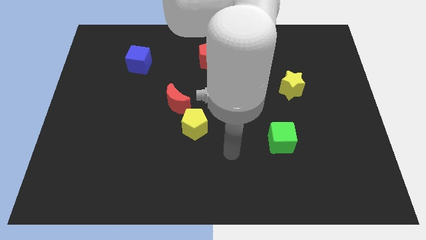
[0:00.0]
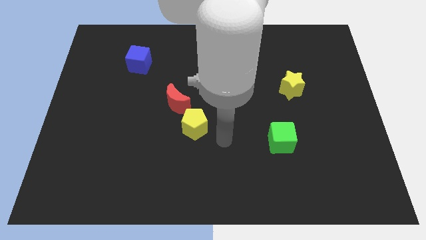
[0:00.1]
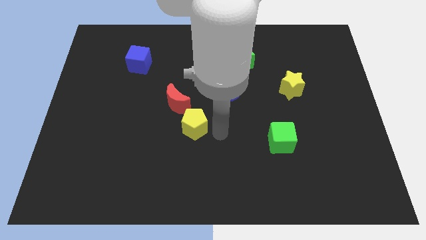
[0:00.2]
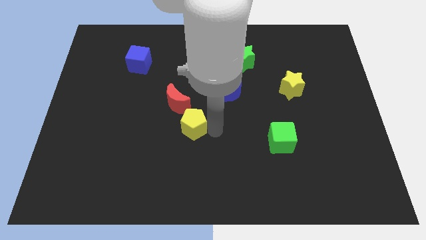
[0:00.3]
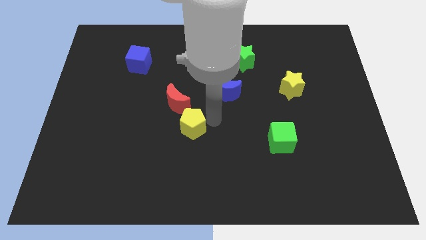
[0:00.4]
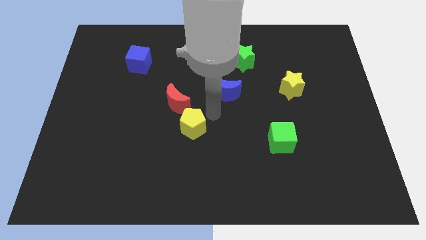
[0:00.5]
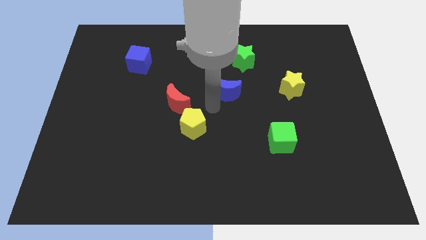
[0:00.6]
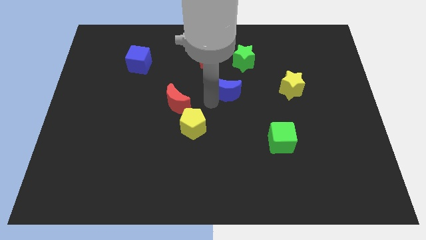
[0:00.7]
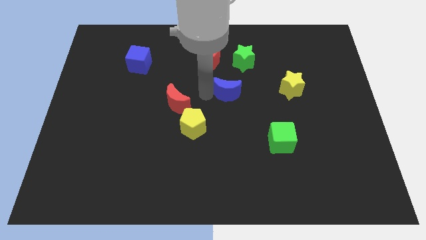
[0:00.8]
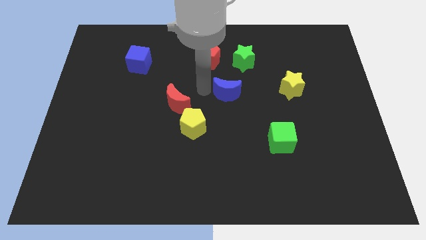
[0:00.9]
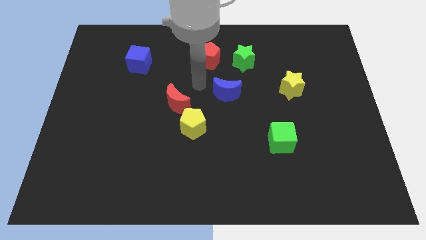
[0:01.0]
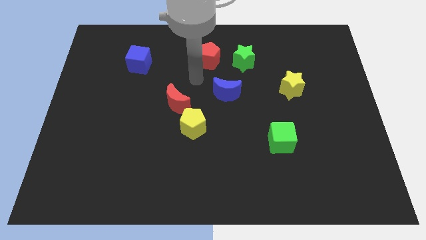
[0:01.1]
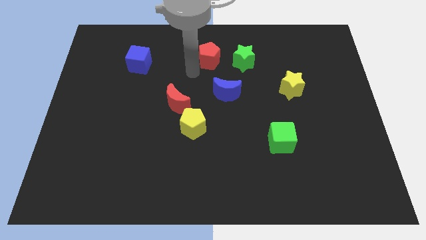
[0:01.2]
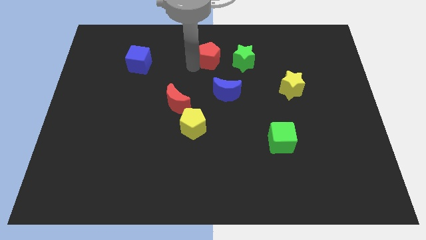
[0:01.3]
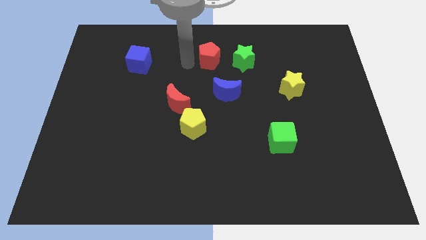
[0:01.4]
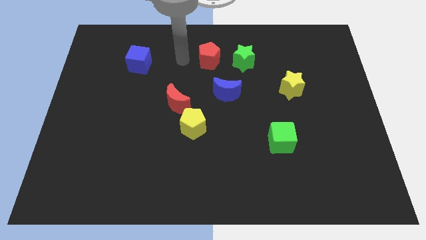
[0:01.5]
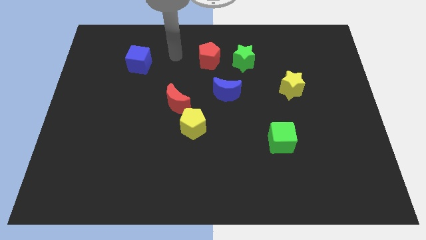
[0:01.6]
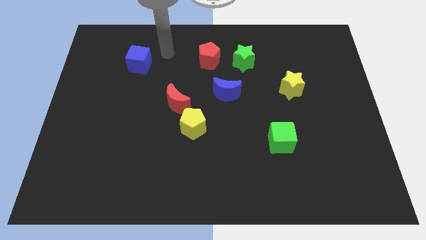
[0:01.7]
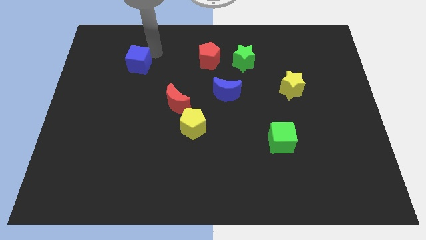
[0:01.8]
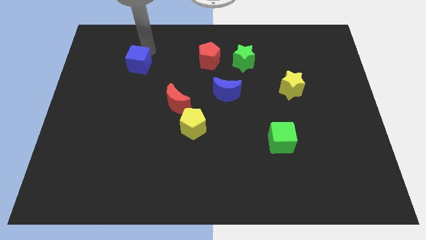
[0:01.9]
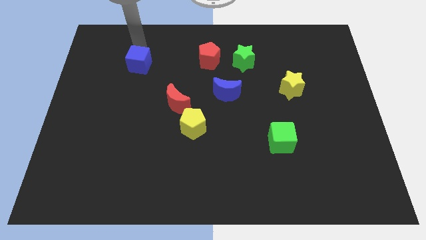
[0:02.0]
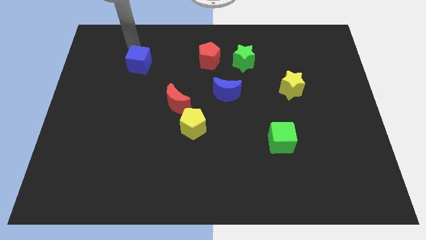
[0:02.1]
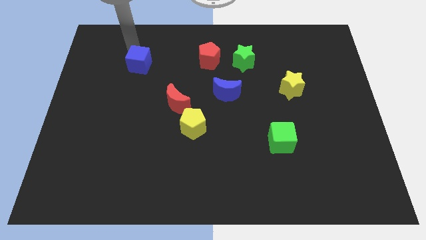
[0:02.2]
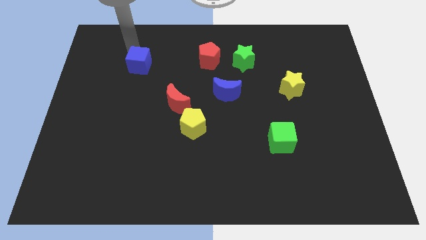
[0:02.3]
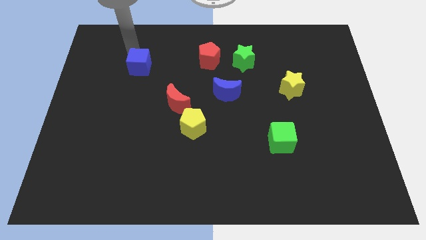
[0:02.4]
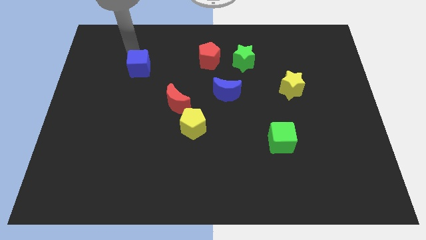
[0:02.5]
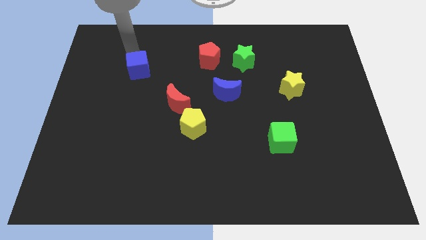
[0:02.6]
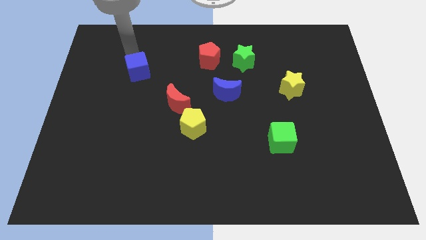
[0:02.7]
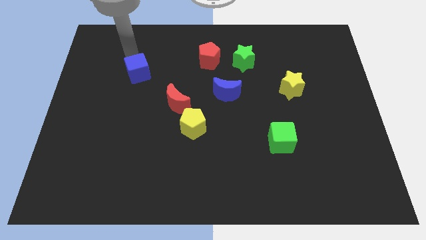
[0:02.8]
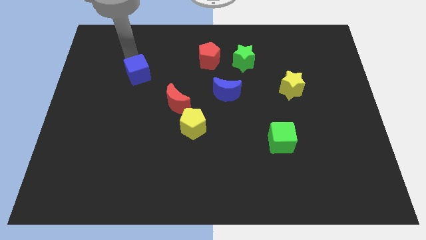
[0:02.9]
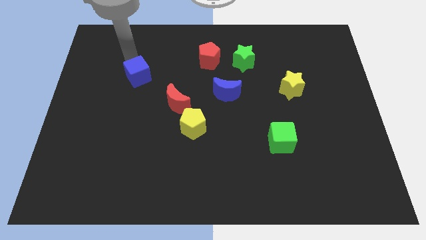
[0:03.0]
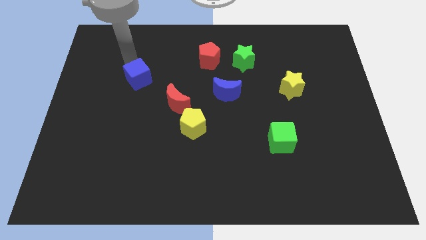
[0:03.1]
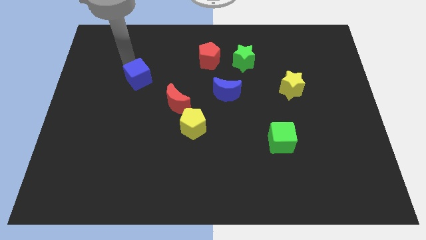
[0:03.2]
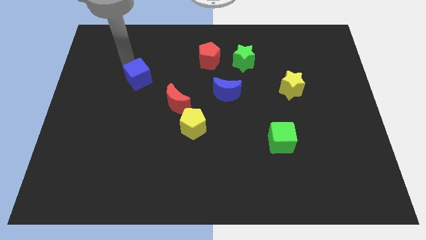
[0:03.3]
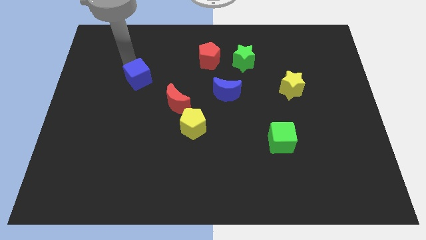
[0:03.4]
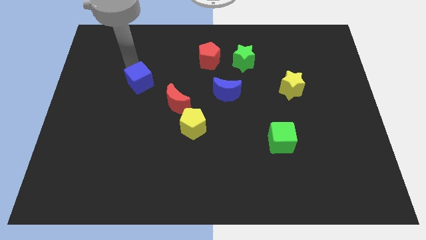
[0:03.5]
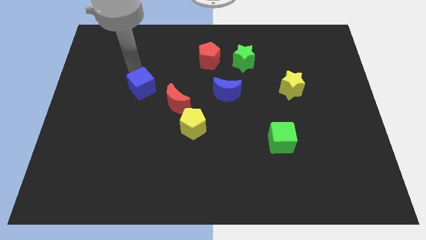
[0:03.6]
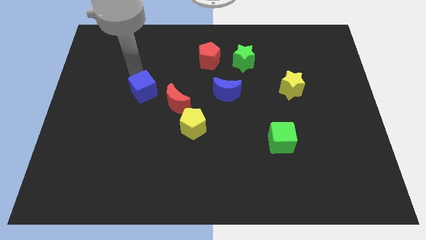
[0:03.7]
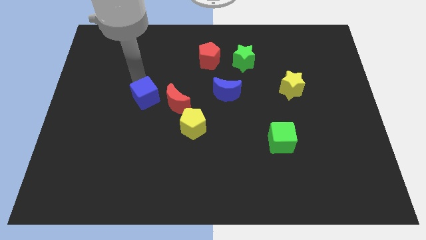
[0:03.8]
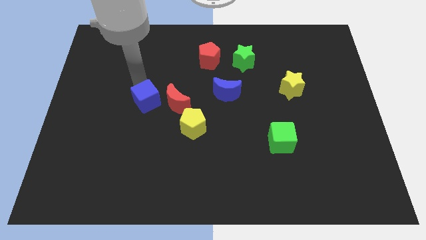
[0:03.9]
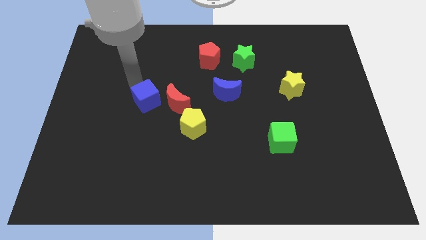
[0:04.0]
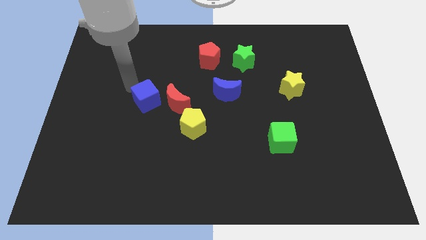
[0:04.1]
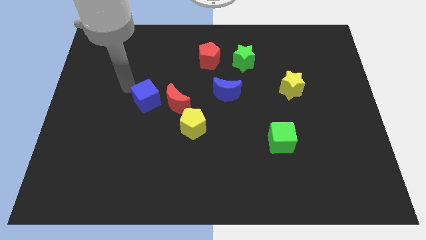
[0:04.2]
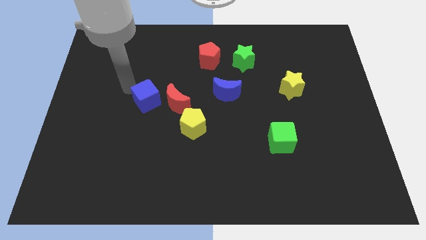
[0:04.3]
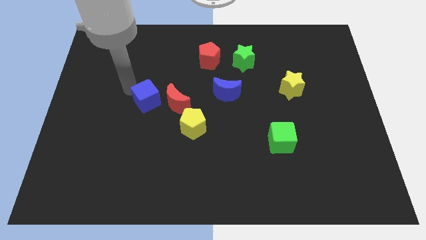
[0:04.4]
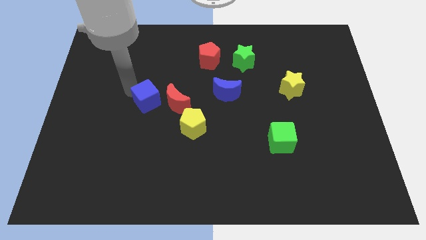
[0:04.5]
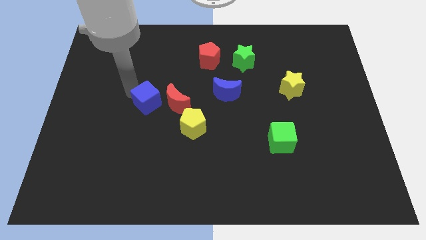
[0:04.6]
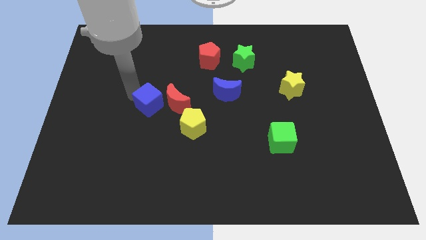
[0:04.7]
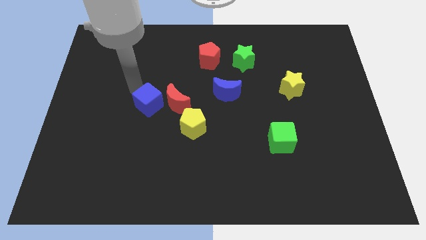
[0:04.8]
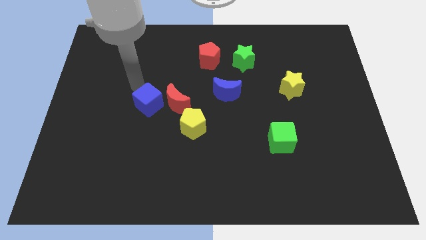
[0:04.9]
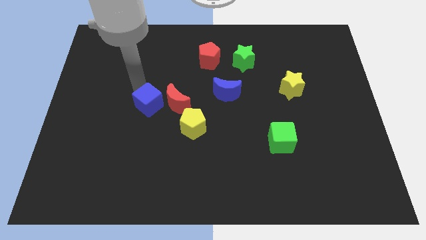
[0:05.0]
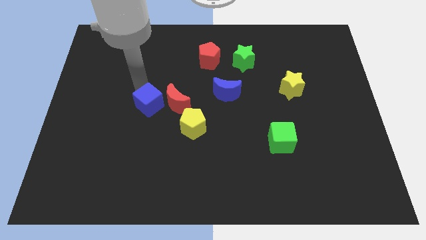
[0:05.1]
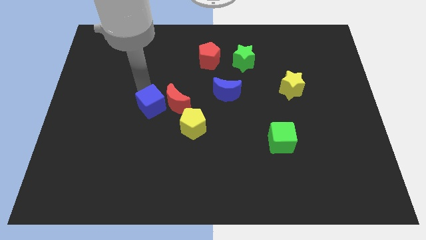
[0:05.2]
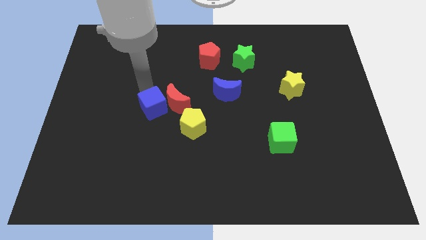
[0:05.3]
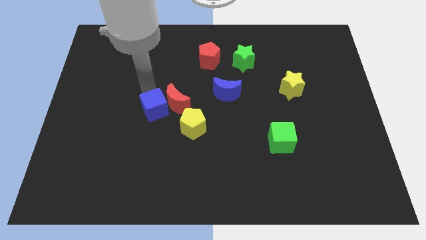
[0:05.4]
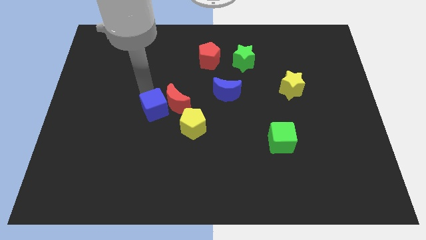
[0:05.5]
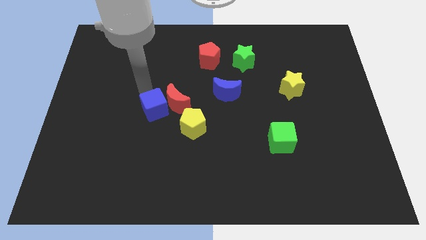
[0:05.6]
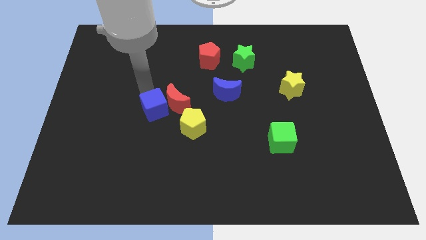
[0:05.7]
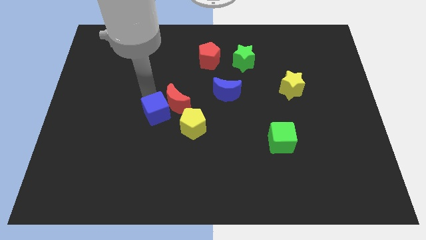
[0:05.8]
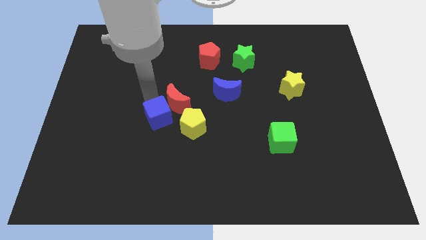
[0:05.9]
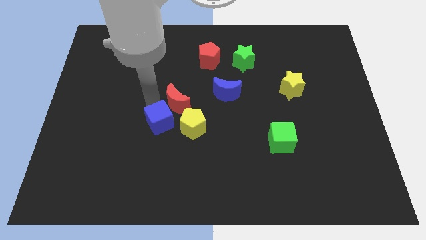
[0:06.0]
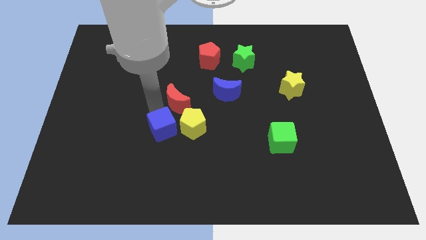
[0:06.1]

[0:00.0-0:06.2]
move the blue cube diagonally down and to the left of the yellow pentagon
